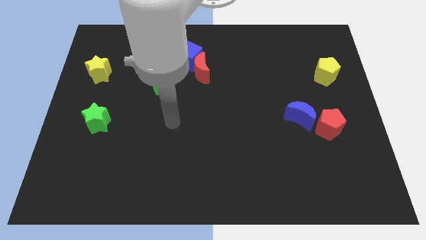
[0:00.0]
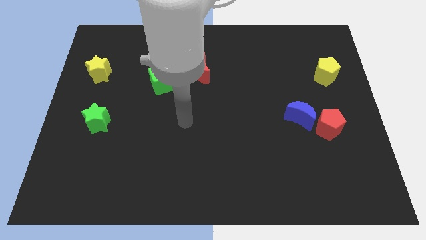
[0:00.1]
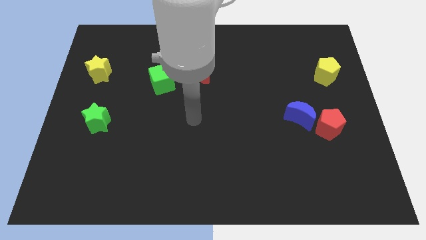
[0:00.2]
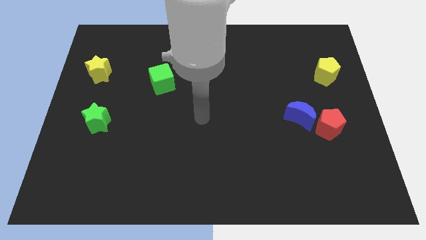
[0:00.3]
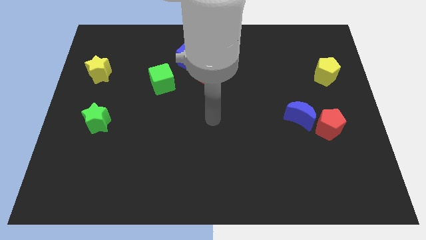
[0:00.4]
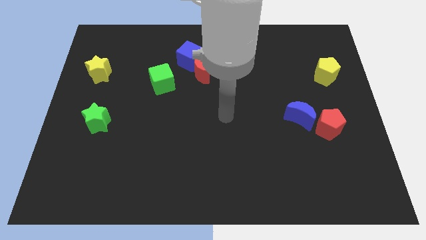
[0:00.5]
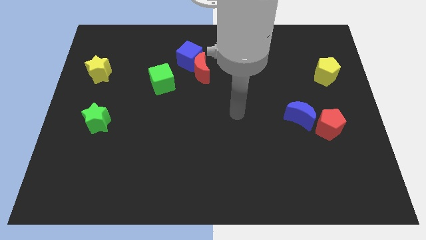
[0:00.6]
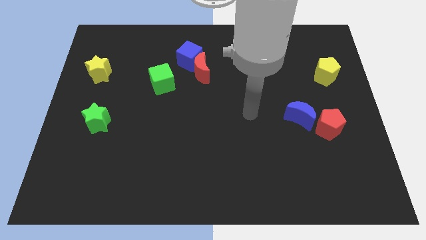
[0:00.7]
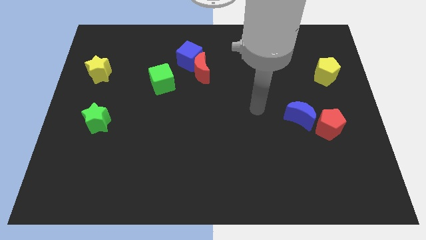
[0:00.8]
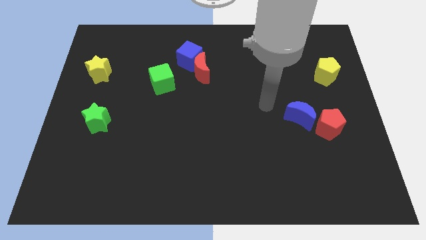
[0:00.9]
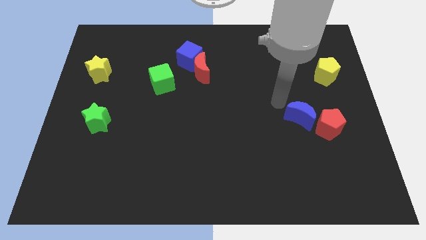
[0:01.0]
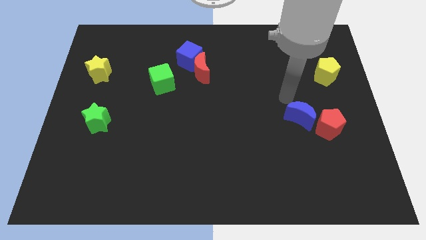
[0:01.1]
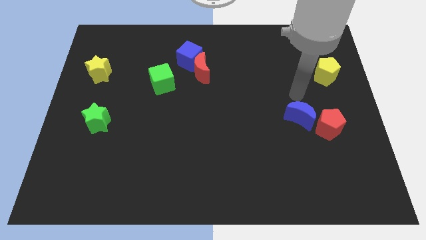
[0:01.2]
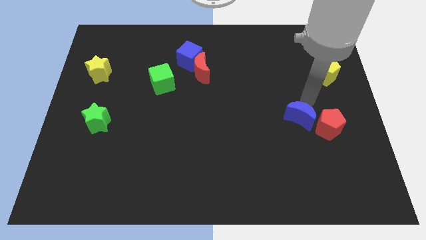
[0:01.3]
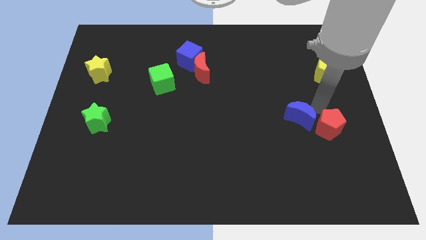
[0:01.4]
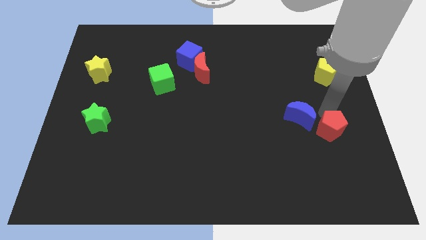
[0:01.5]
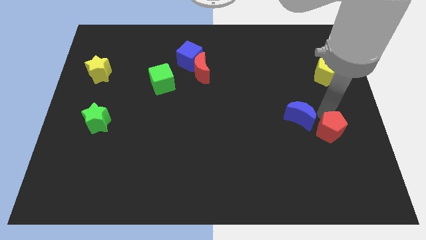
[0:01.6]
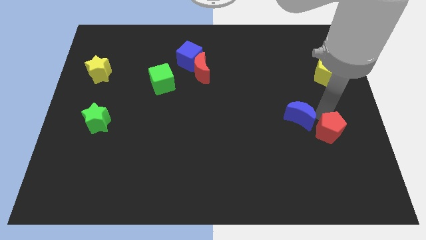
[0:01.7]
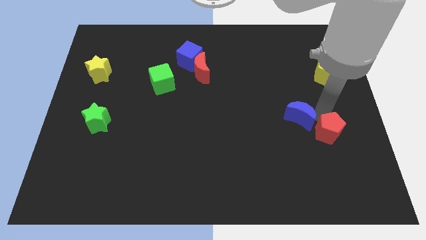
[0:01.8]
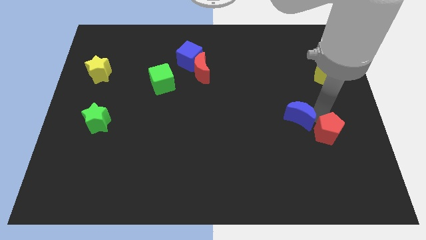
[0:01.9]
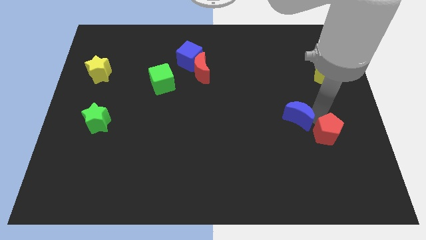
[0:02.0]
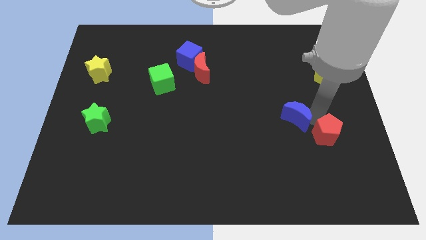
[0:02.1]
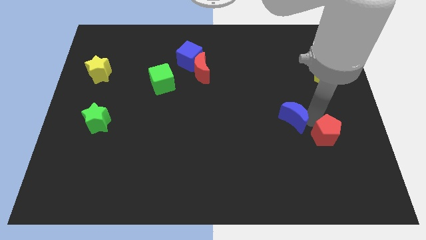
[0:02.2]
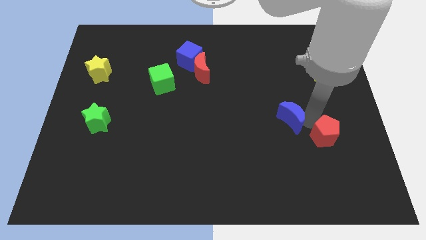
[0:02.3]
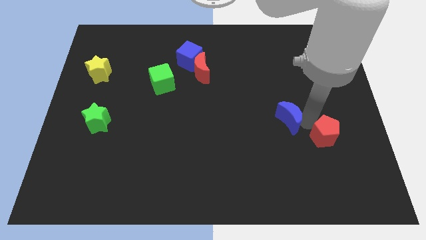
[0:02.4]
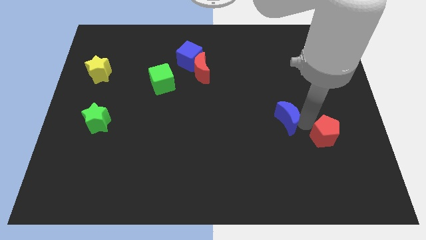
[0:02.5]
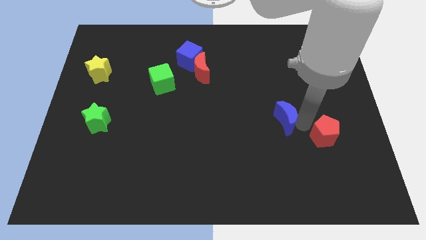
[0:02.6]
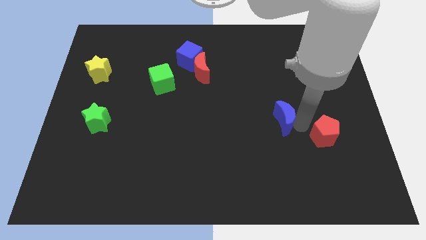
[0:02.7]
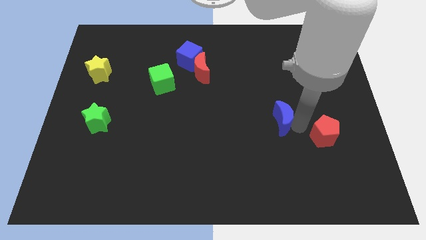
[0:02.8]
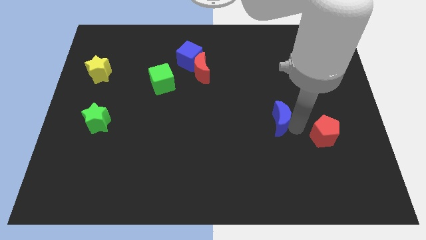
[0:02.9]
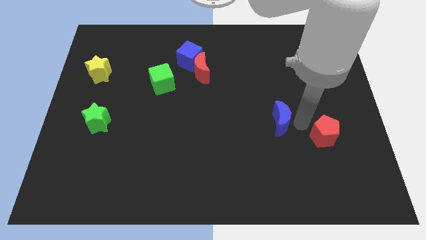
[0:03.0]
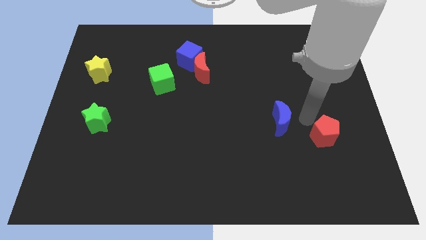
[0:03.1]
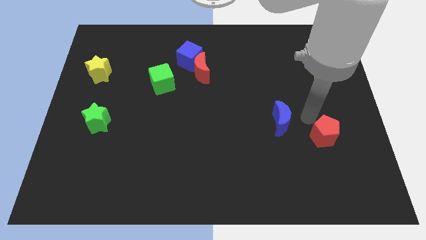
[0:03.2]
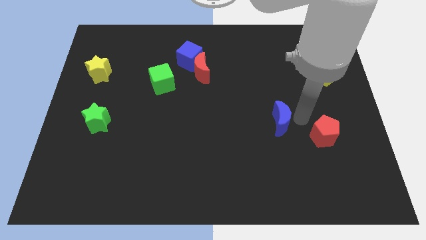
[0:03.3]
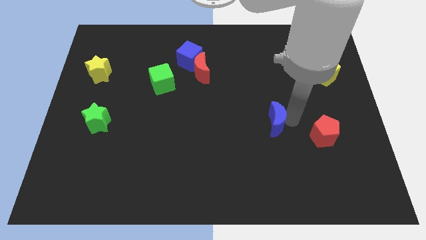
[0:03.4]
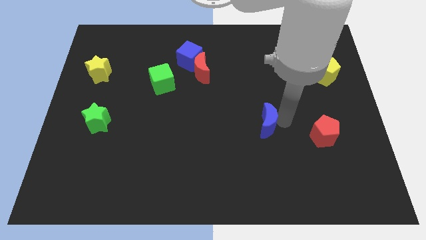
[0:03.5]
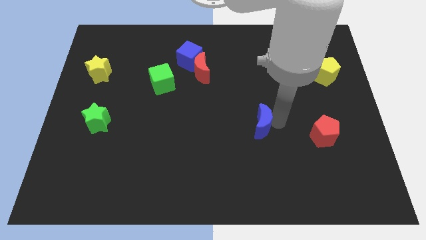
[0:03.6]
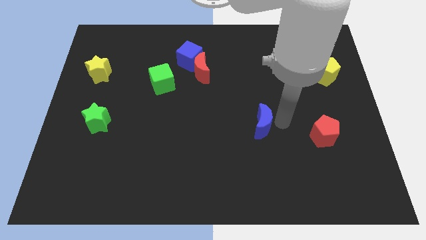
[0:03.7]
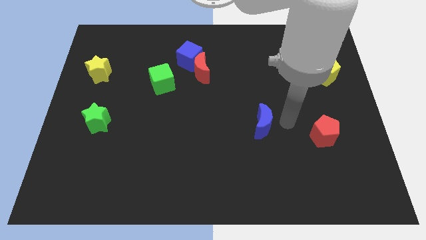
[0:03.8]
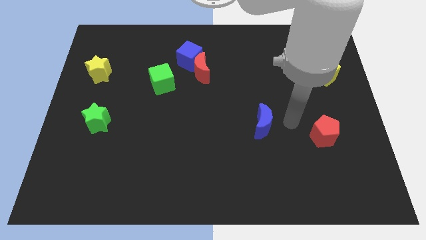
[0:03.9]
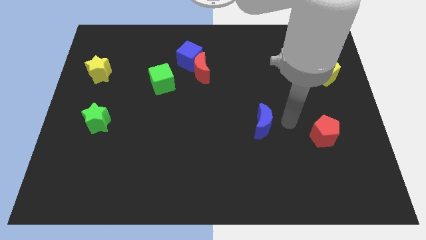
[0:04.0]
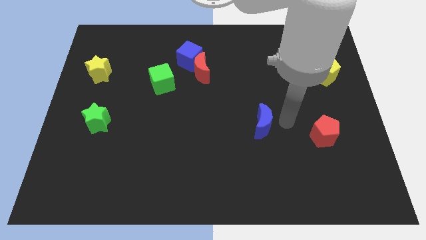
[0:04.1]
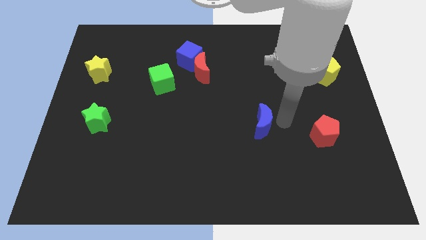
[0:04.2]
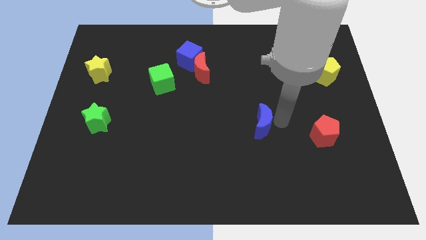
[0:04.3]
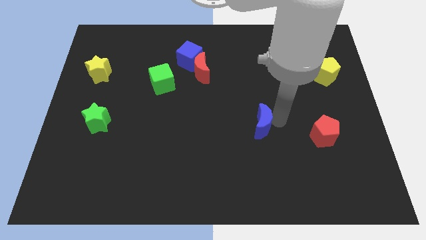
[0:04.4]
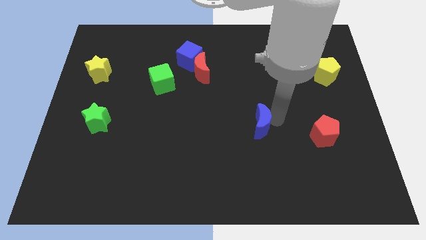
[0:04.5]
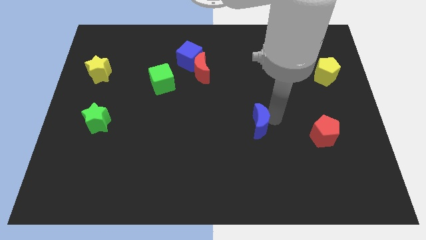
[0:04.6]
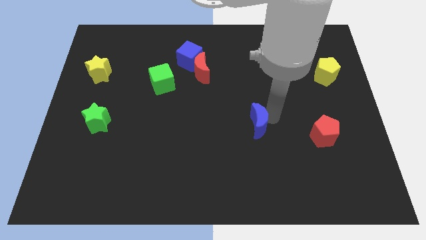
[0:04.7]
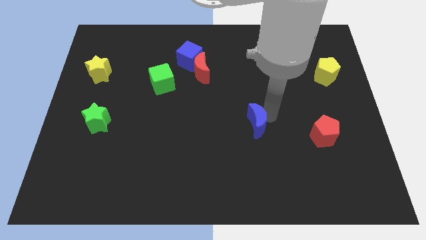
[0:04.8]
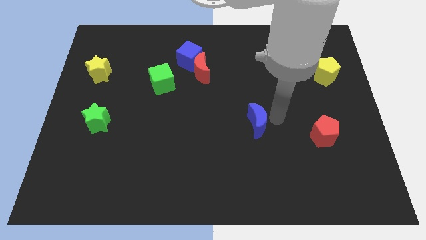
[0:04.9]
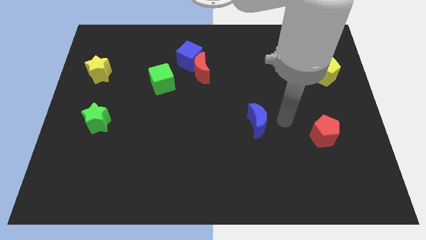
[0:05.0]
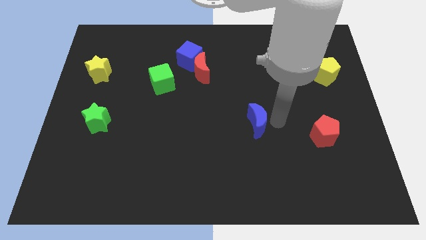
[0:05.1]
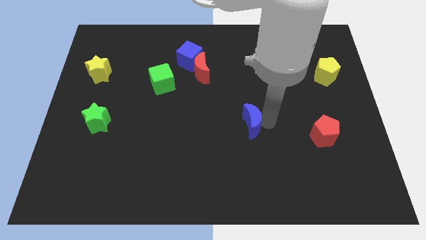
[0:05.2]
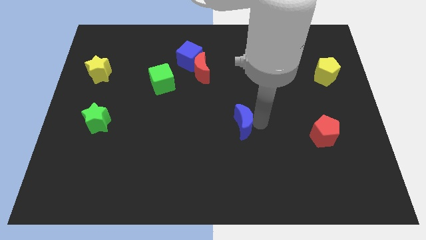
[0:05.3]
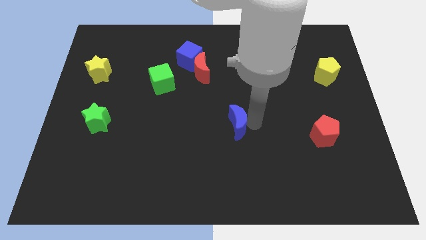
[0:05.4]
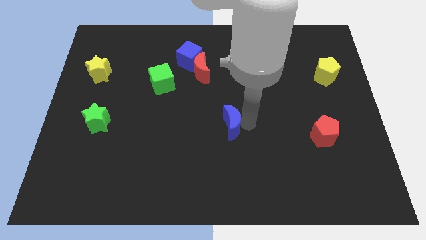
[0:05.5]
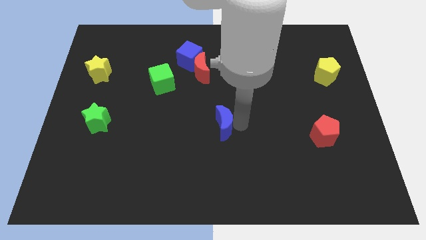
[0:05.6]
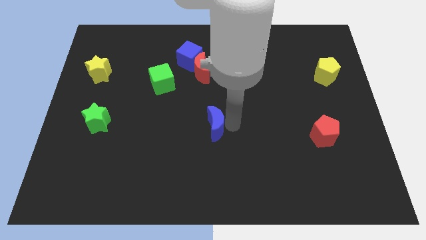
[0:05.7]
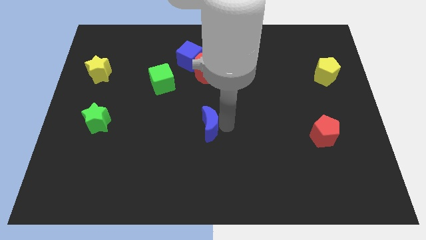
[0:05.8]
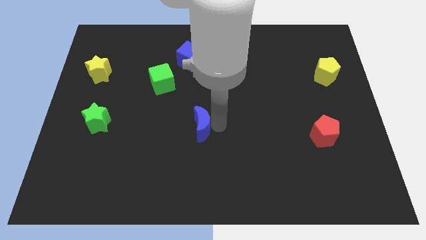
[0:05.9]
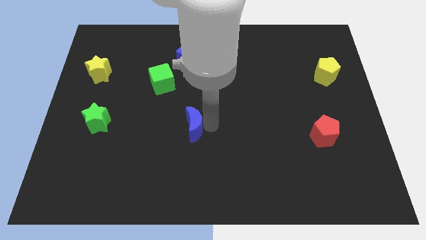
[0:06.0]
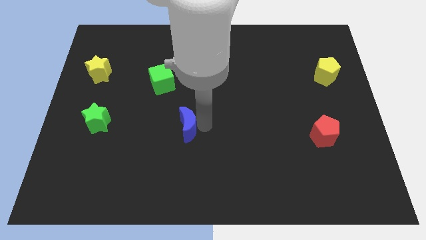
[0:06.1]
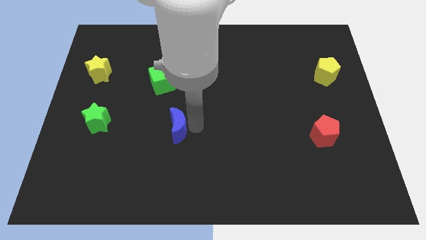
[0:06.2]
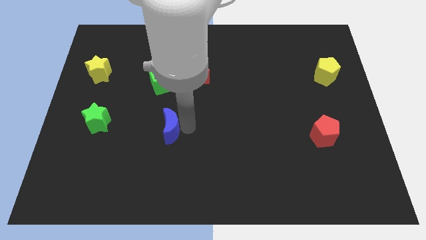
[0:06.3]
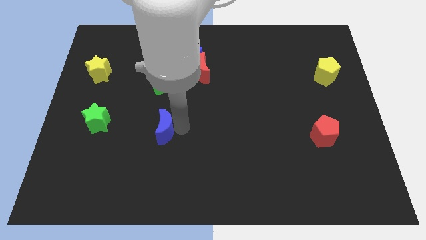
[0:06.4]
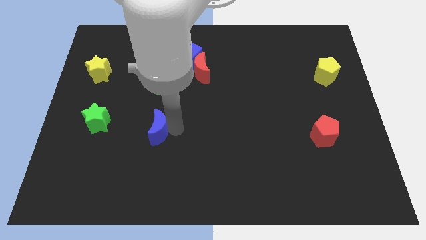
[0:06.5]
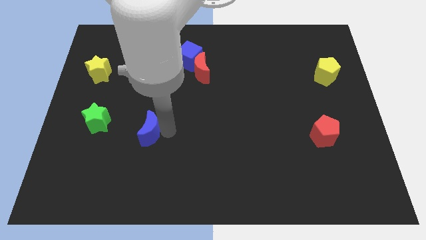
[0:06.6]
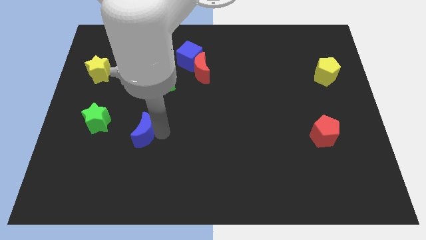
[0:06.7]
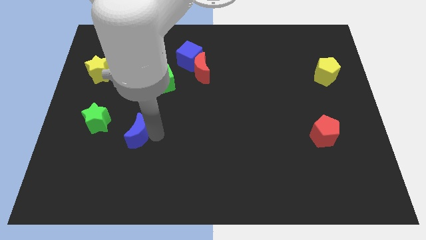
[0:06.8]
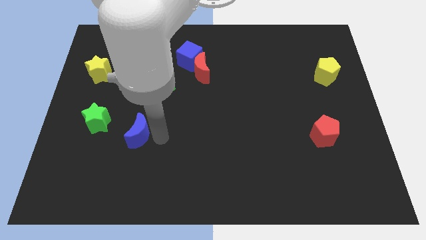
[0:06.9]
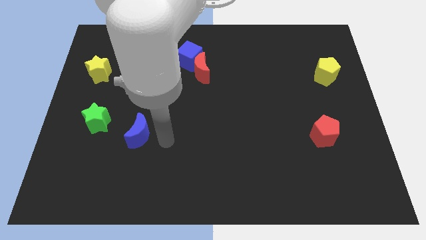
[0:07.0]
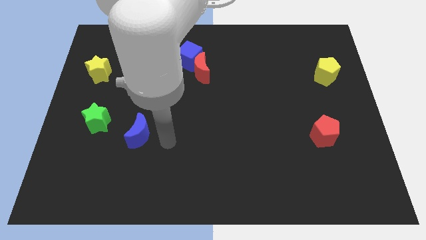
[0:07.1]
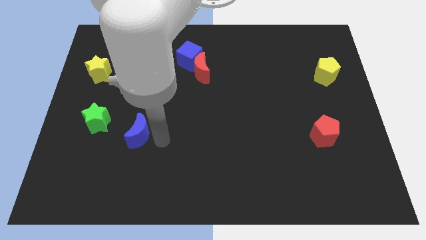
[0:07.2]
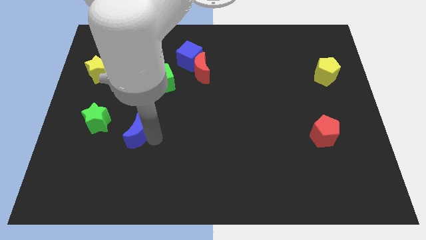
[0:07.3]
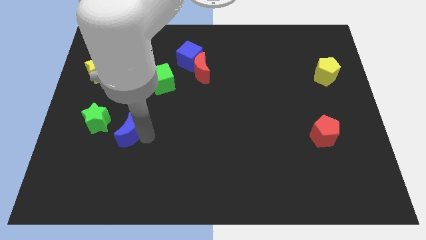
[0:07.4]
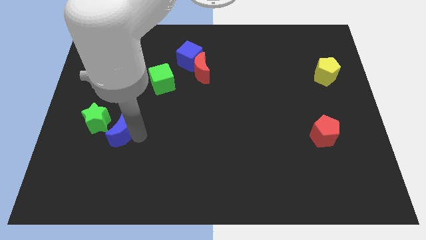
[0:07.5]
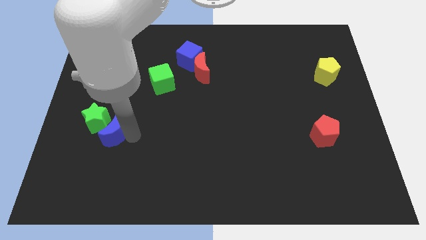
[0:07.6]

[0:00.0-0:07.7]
push the blue moon close to the green star
